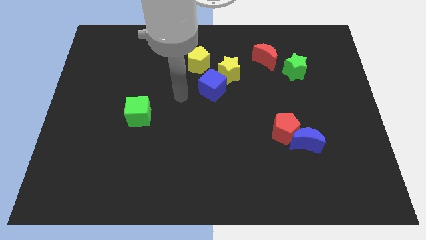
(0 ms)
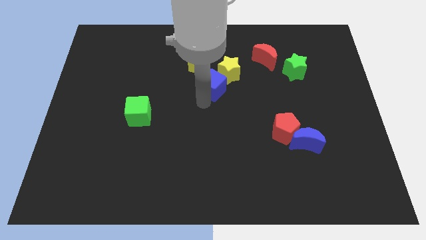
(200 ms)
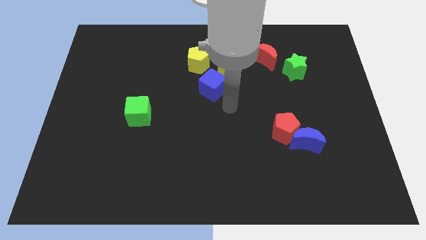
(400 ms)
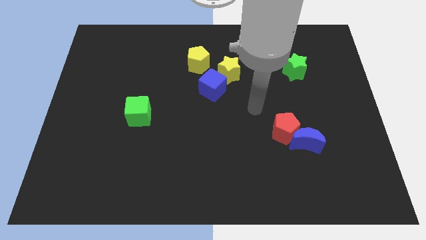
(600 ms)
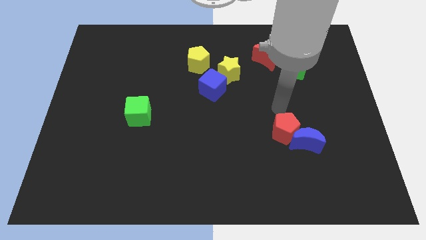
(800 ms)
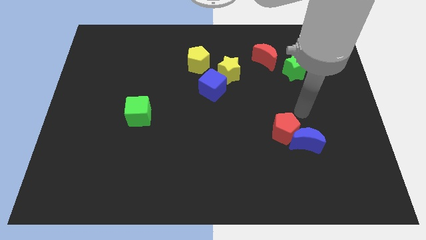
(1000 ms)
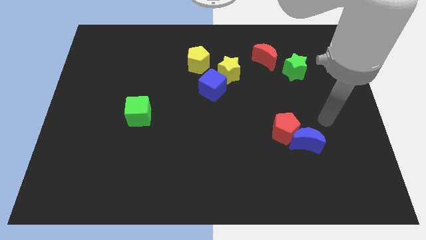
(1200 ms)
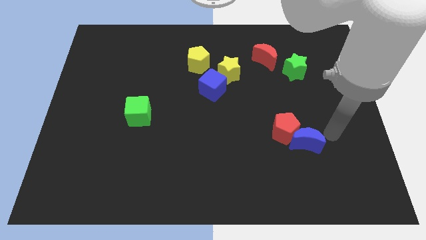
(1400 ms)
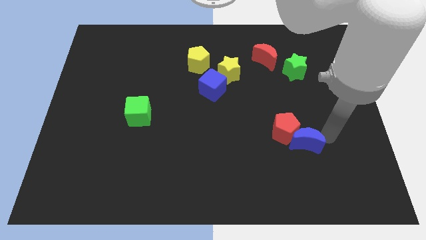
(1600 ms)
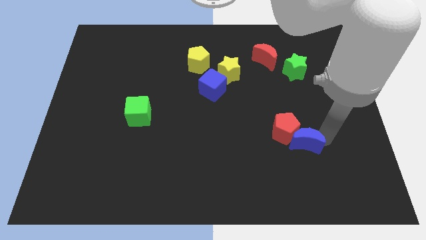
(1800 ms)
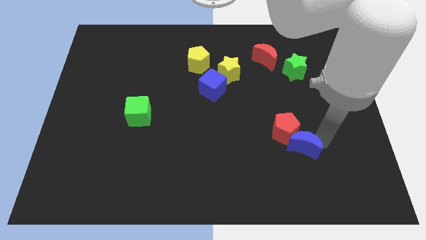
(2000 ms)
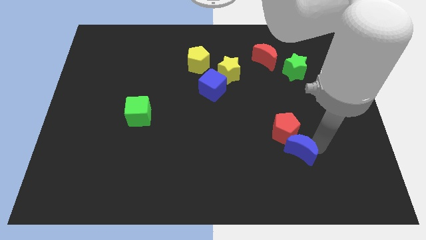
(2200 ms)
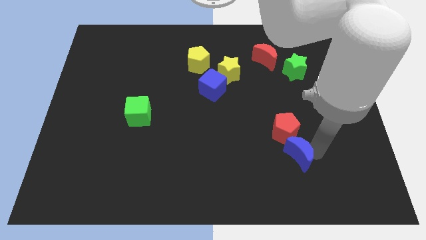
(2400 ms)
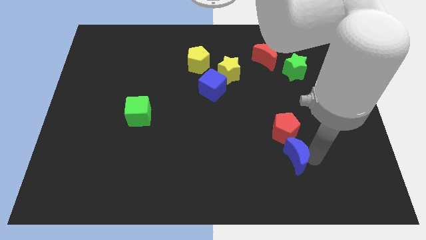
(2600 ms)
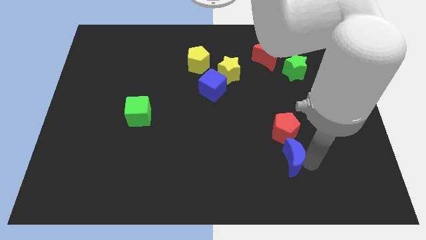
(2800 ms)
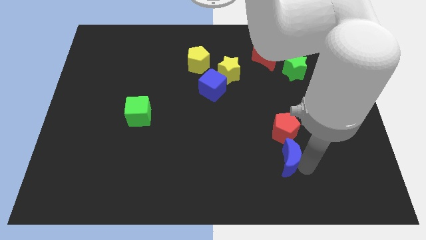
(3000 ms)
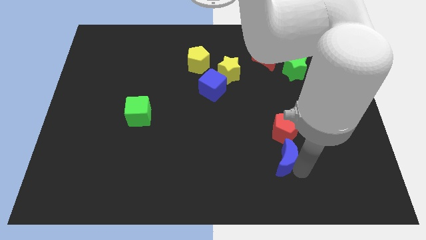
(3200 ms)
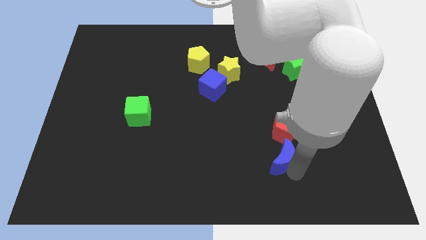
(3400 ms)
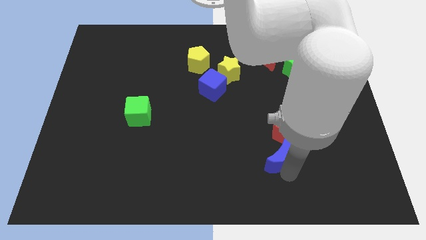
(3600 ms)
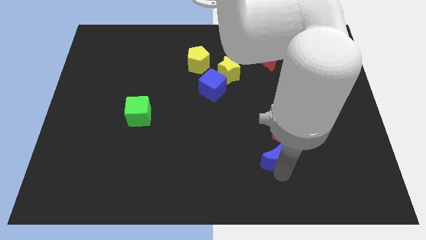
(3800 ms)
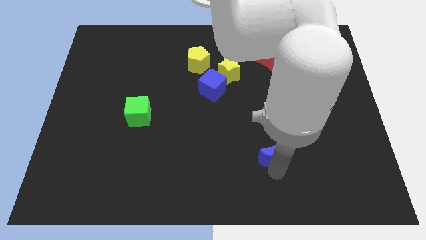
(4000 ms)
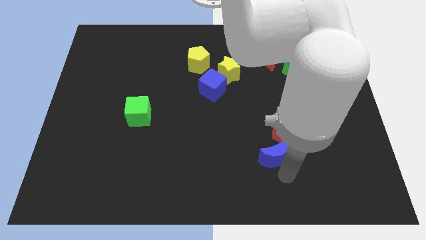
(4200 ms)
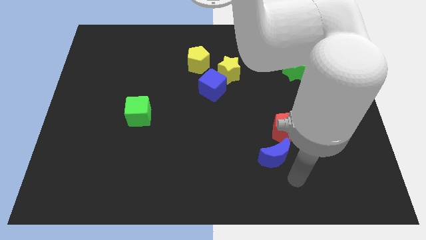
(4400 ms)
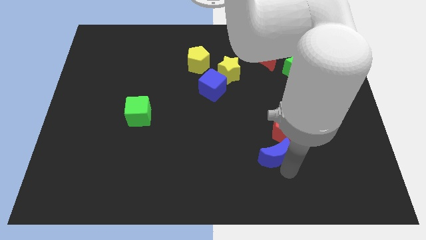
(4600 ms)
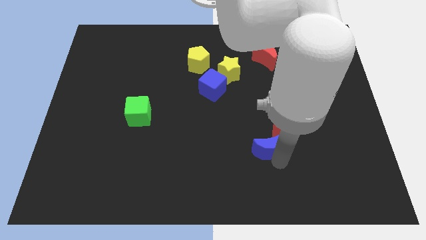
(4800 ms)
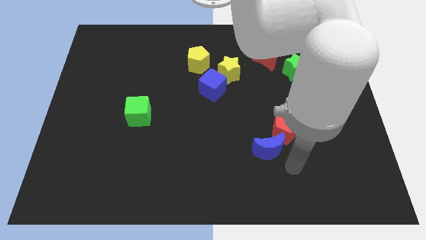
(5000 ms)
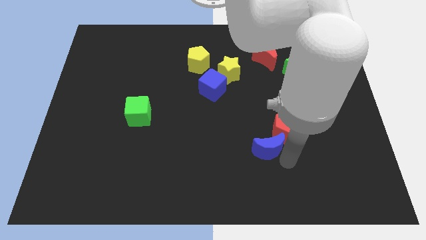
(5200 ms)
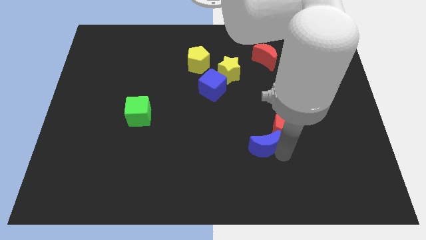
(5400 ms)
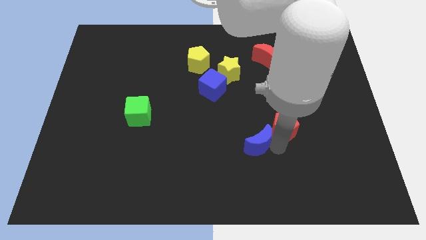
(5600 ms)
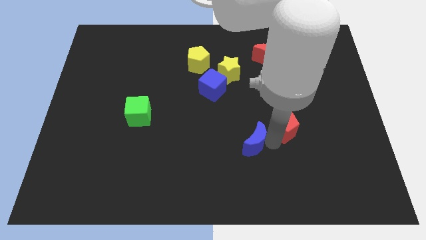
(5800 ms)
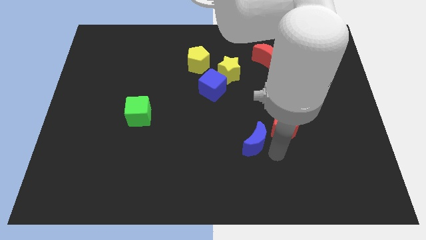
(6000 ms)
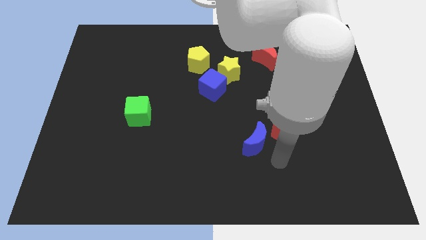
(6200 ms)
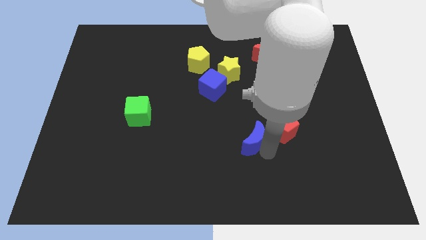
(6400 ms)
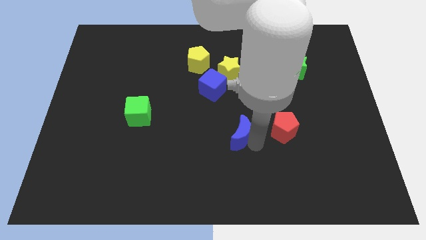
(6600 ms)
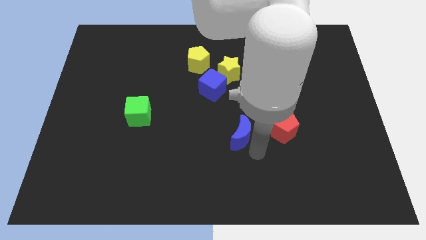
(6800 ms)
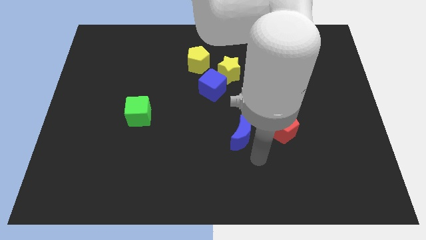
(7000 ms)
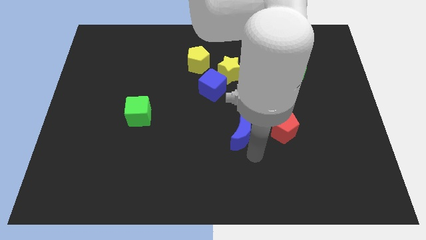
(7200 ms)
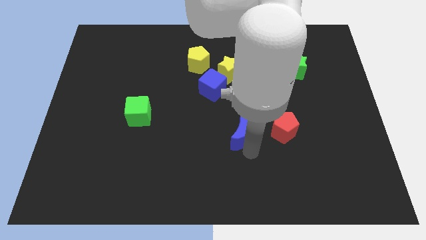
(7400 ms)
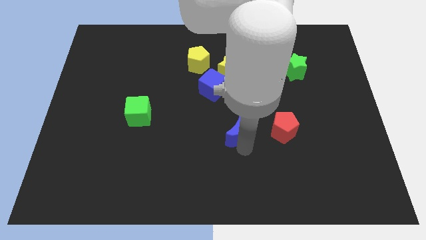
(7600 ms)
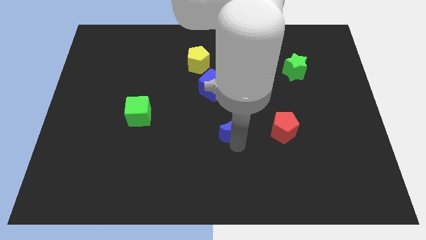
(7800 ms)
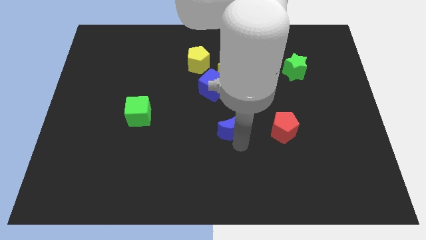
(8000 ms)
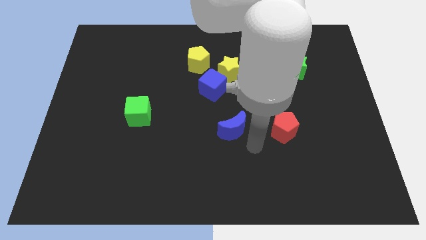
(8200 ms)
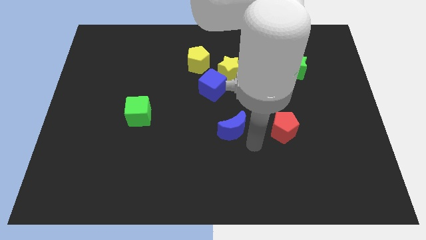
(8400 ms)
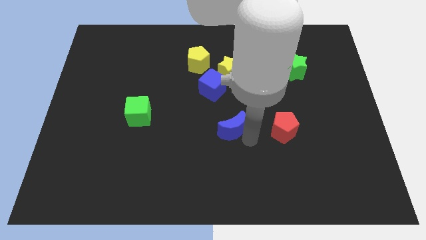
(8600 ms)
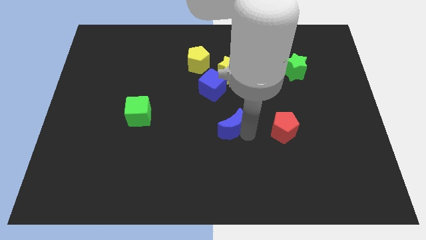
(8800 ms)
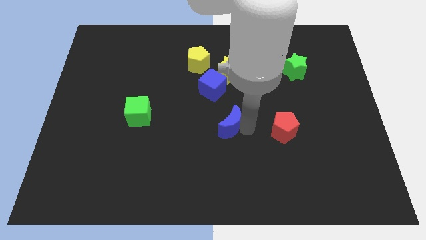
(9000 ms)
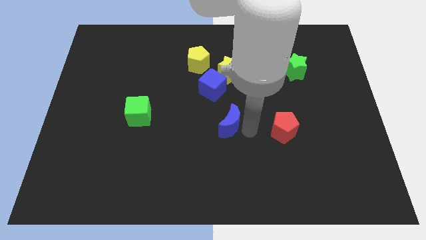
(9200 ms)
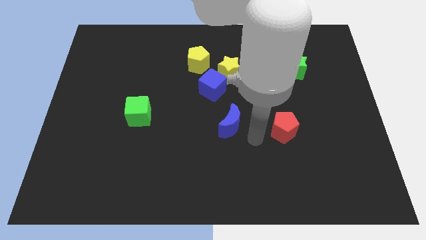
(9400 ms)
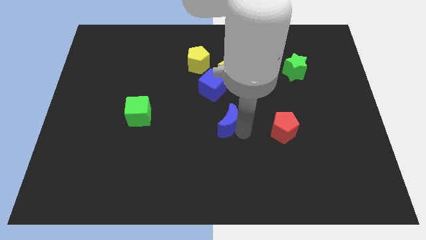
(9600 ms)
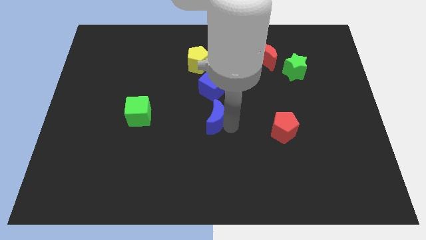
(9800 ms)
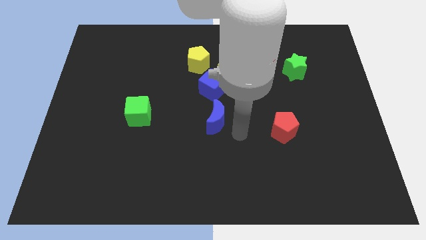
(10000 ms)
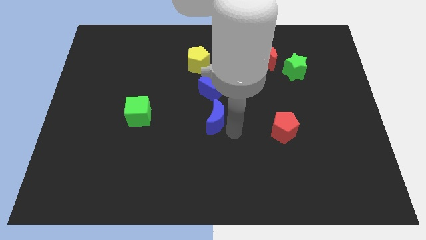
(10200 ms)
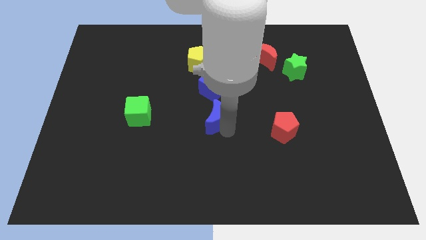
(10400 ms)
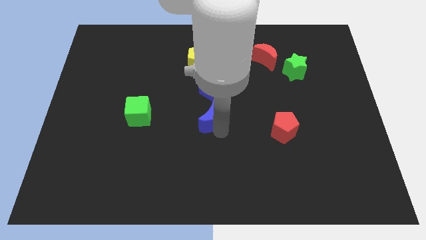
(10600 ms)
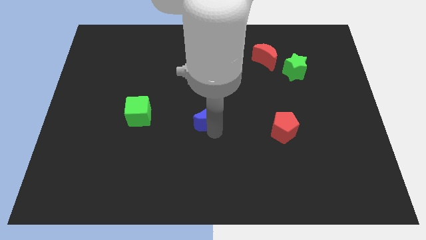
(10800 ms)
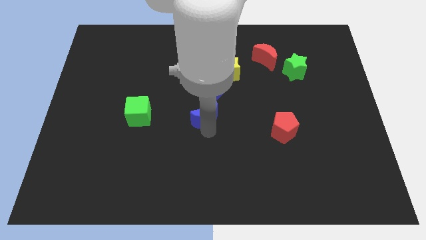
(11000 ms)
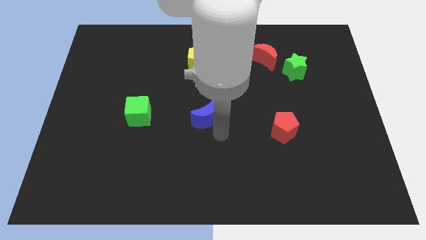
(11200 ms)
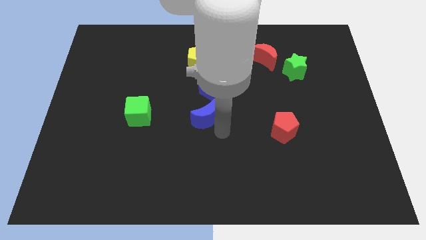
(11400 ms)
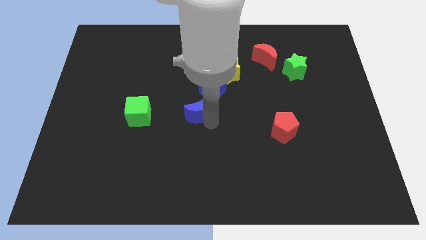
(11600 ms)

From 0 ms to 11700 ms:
push the blue moon diagonally down and to the left of the blue cube

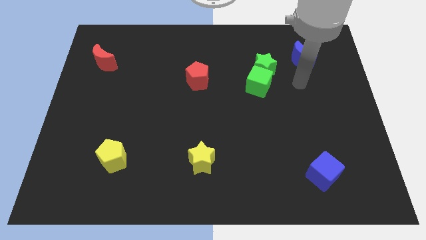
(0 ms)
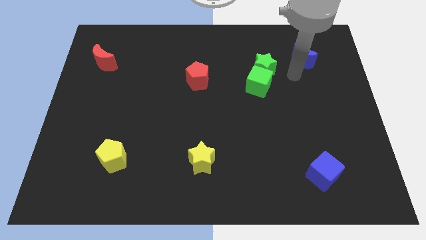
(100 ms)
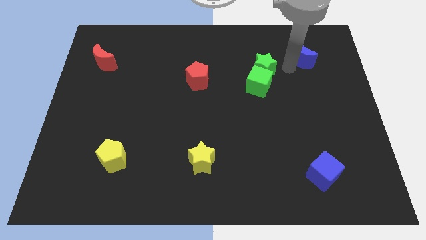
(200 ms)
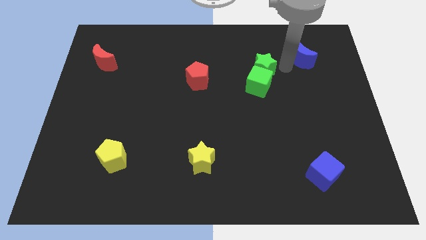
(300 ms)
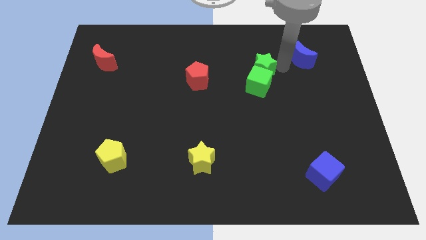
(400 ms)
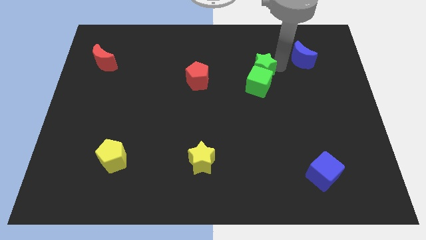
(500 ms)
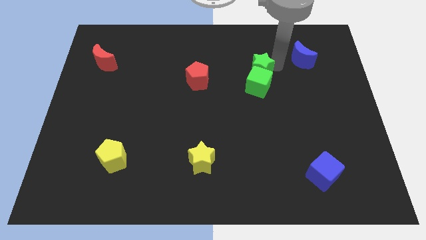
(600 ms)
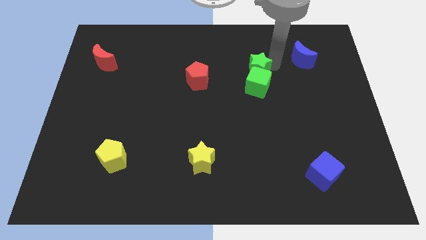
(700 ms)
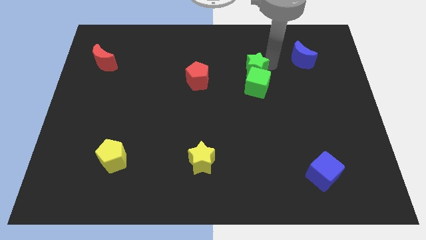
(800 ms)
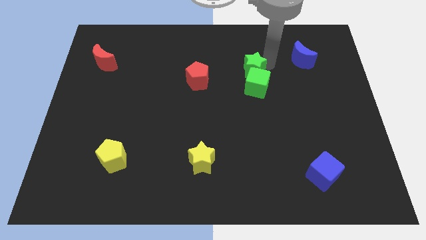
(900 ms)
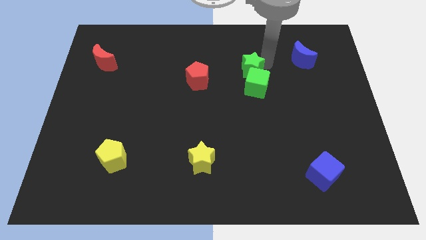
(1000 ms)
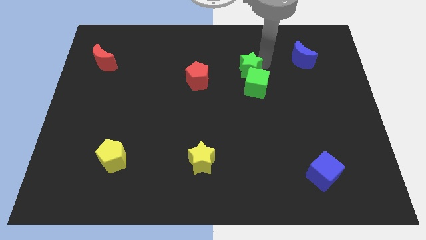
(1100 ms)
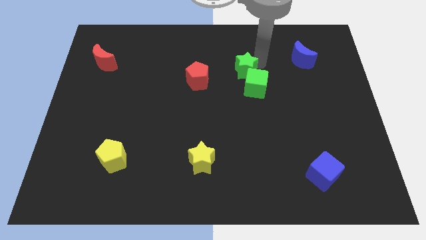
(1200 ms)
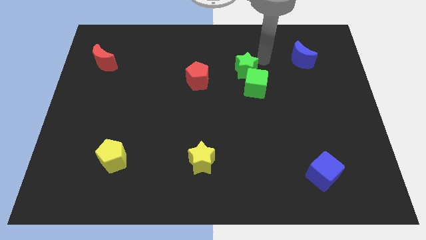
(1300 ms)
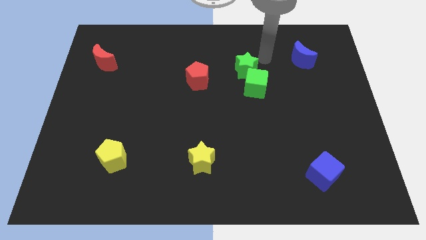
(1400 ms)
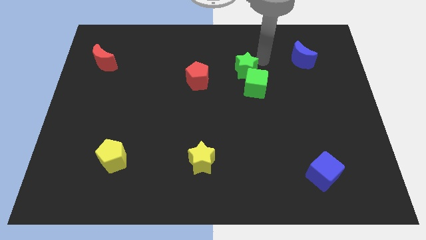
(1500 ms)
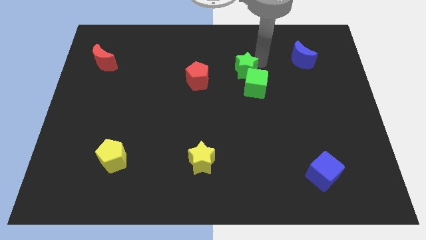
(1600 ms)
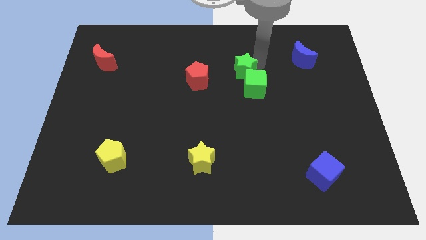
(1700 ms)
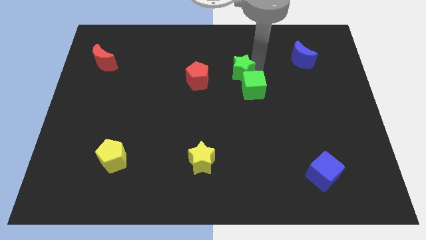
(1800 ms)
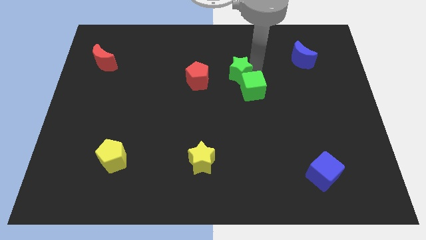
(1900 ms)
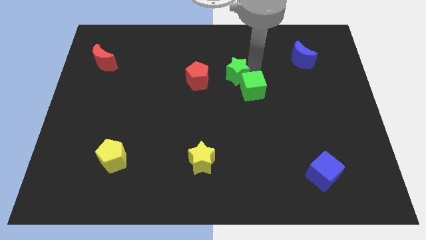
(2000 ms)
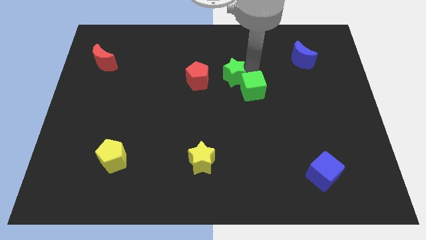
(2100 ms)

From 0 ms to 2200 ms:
put the green star to the left of the green cube
